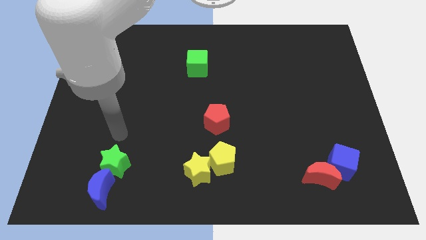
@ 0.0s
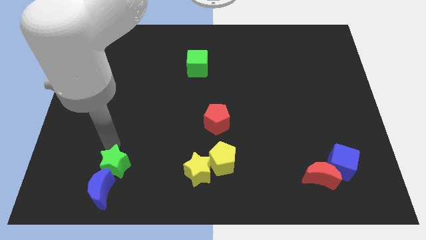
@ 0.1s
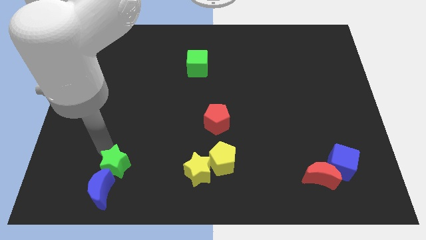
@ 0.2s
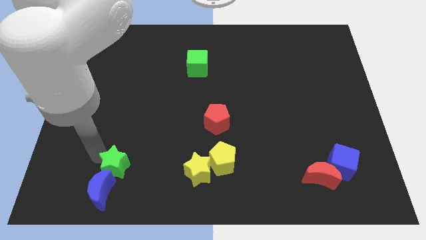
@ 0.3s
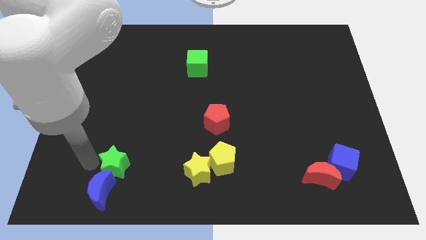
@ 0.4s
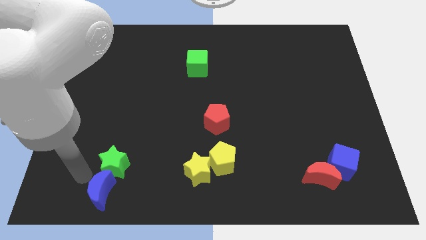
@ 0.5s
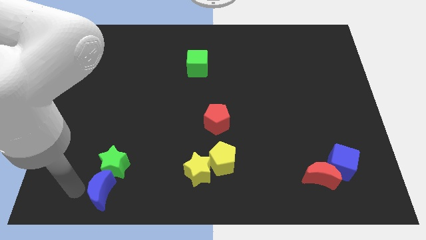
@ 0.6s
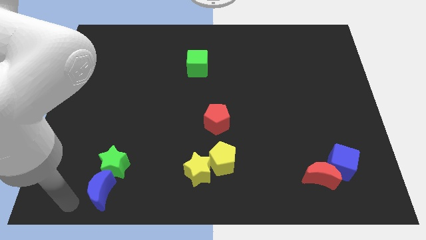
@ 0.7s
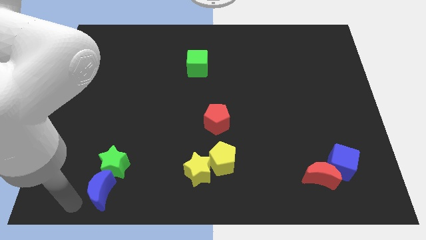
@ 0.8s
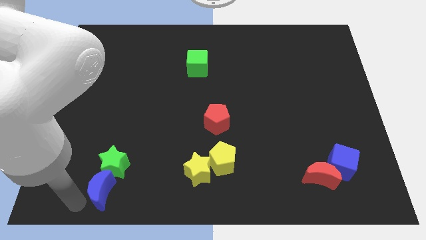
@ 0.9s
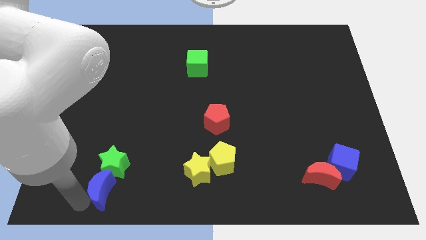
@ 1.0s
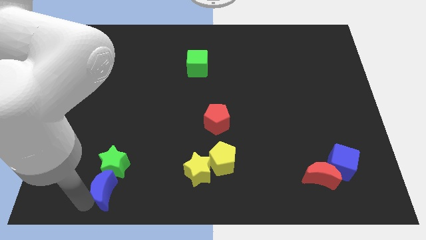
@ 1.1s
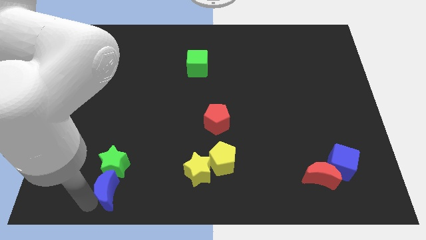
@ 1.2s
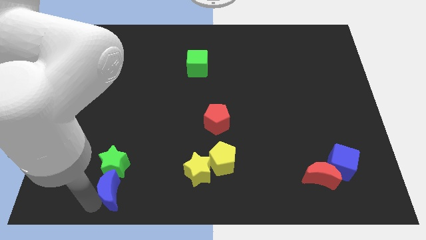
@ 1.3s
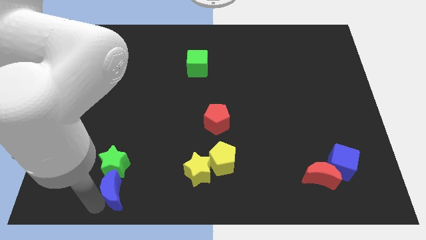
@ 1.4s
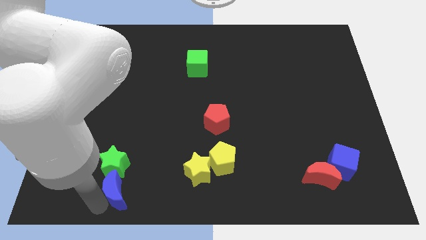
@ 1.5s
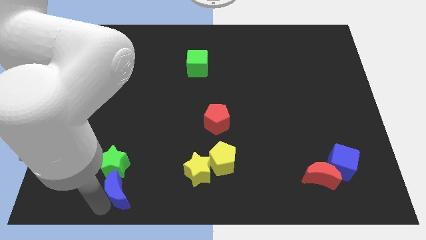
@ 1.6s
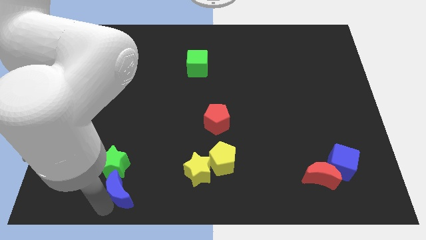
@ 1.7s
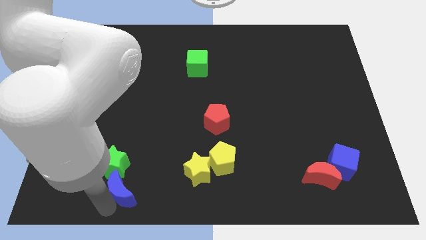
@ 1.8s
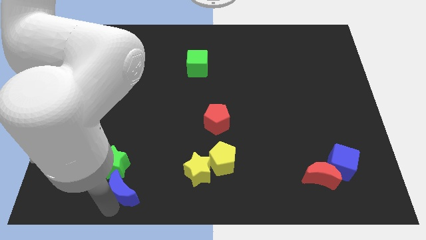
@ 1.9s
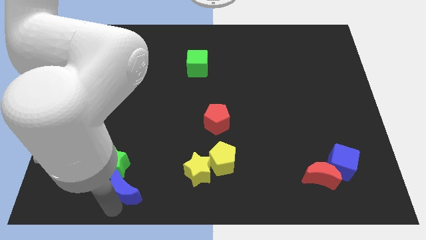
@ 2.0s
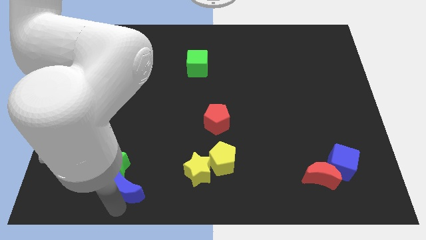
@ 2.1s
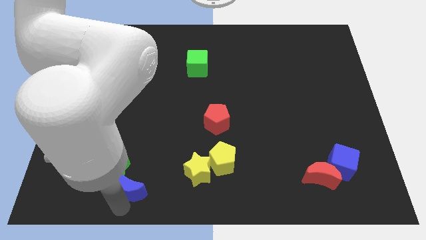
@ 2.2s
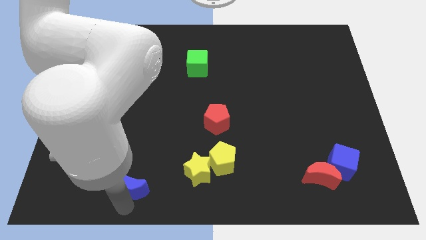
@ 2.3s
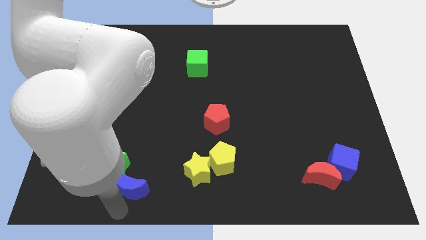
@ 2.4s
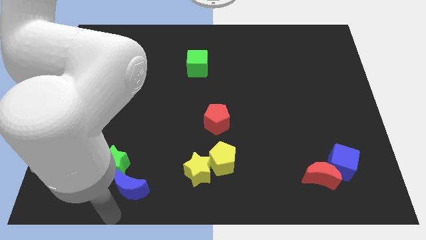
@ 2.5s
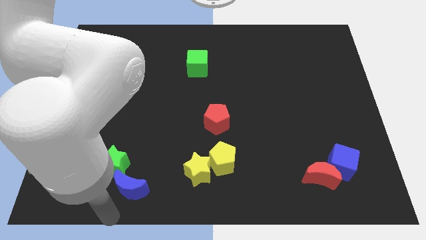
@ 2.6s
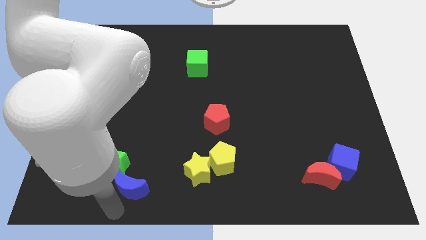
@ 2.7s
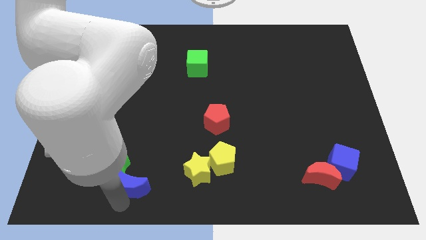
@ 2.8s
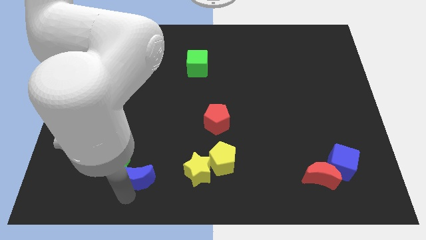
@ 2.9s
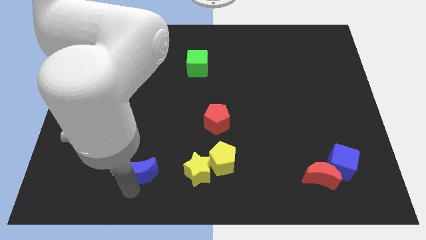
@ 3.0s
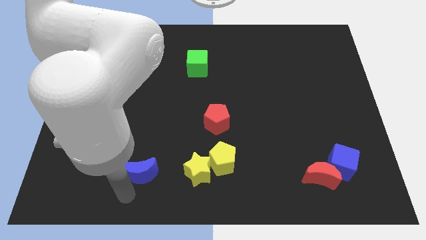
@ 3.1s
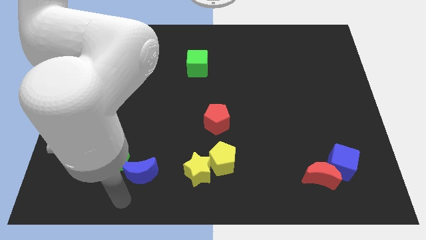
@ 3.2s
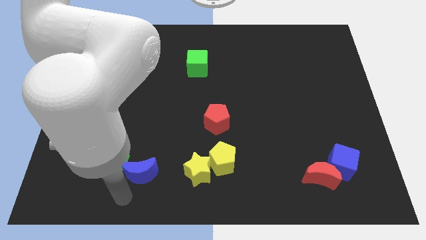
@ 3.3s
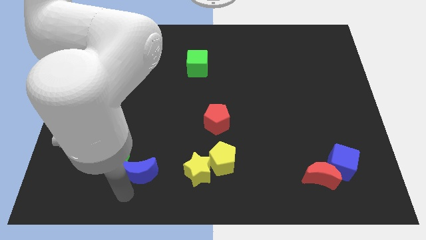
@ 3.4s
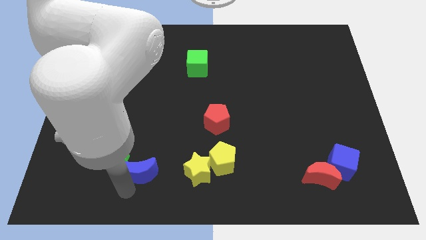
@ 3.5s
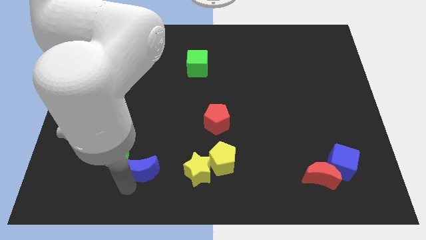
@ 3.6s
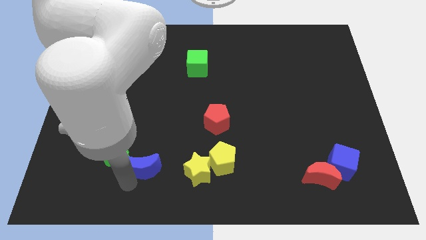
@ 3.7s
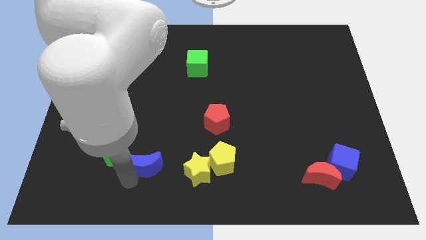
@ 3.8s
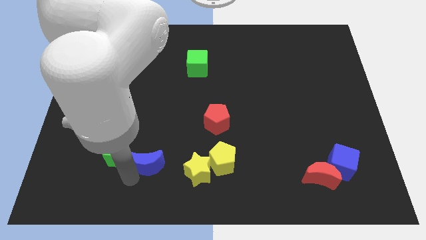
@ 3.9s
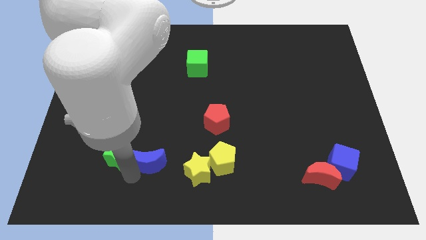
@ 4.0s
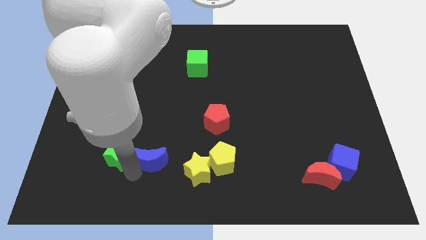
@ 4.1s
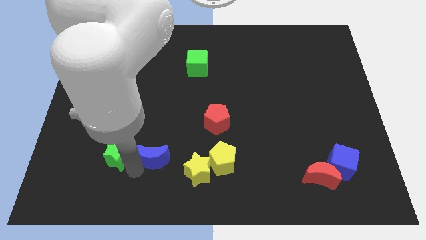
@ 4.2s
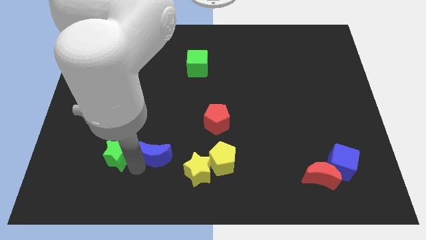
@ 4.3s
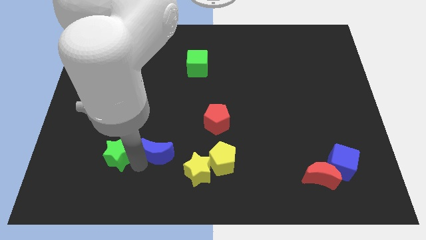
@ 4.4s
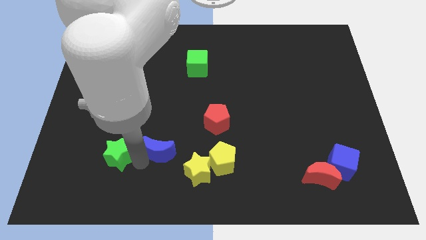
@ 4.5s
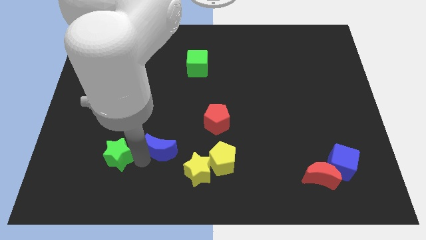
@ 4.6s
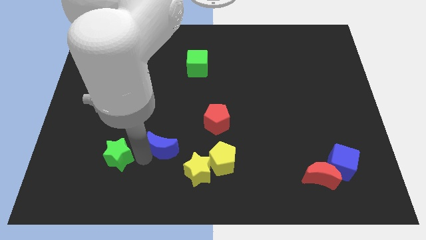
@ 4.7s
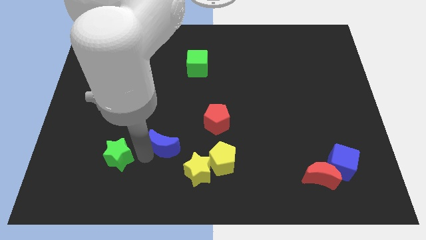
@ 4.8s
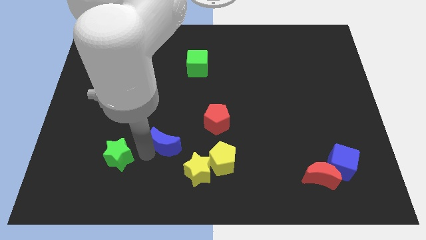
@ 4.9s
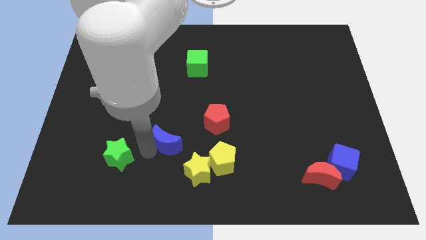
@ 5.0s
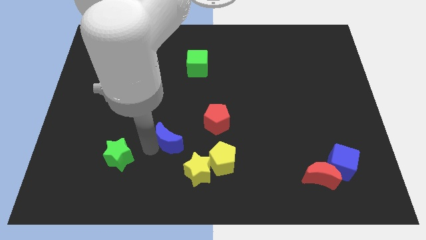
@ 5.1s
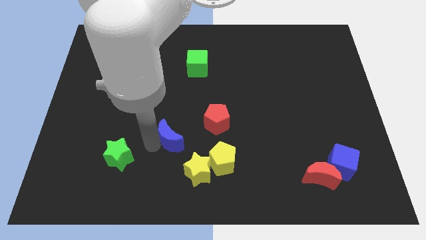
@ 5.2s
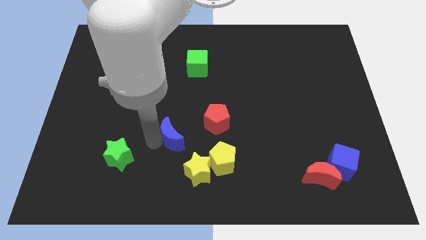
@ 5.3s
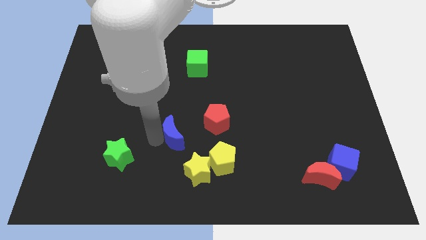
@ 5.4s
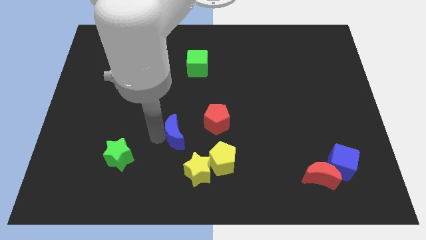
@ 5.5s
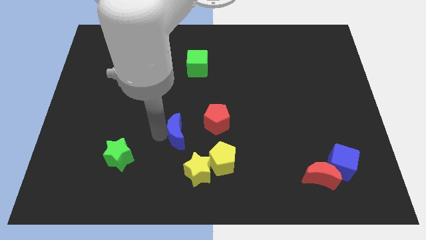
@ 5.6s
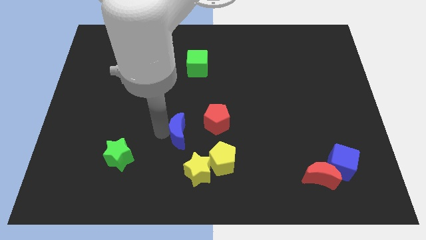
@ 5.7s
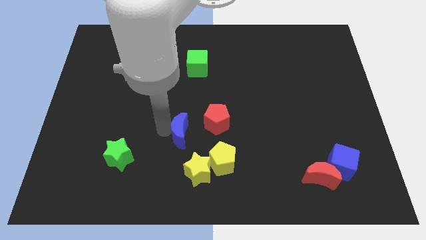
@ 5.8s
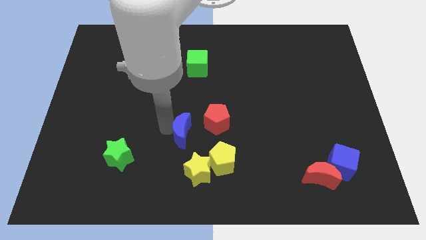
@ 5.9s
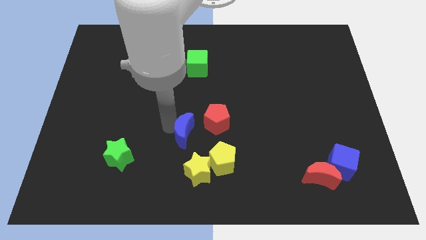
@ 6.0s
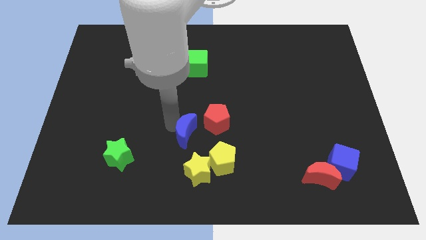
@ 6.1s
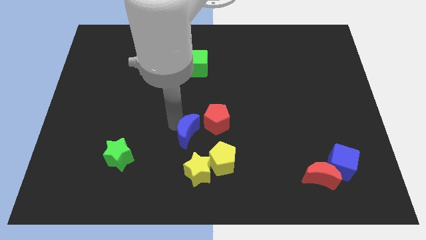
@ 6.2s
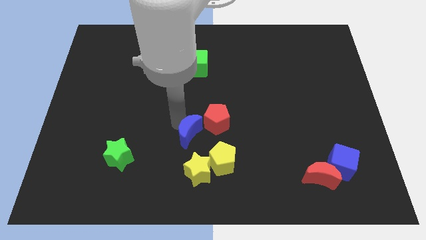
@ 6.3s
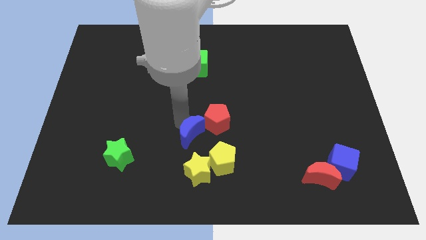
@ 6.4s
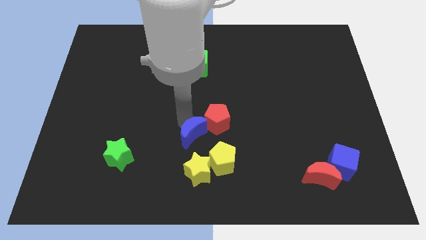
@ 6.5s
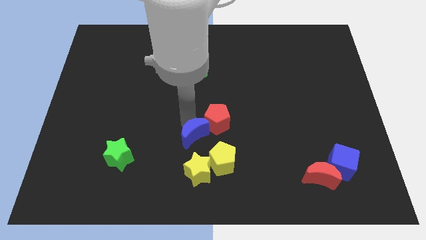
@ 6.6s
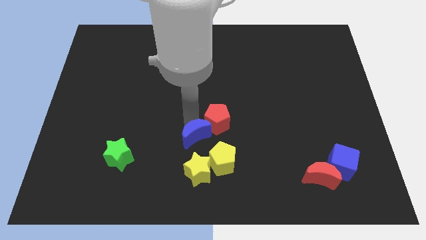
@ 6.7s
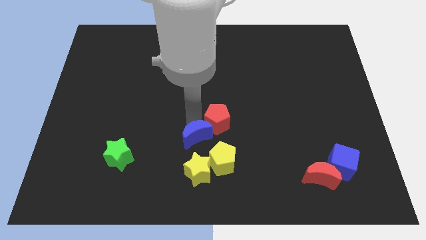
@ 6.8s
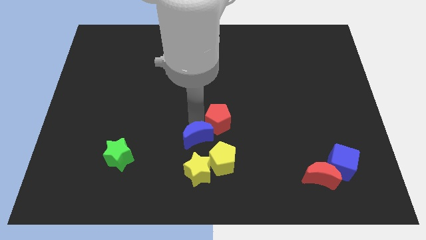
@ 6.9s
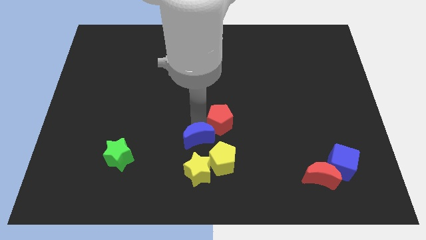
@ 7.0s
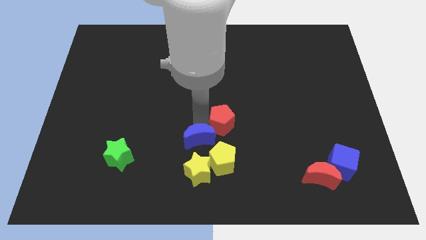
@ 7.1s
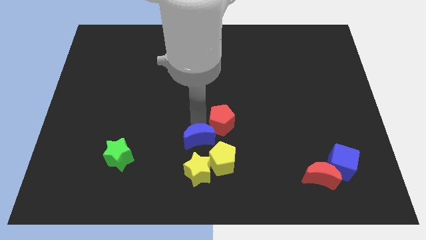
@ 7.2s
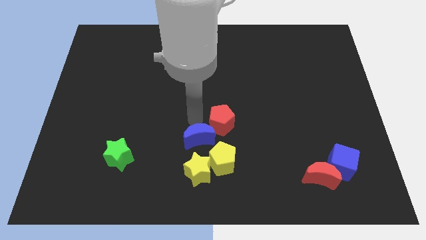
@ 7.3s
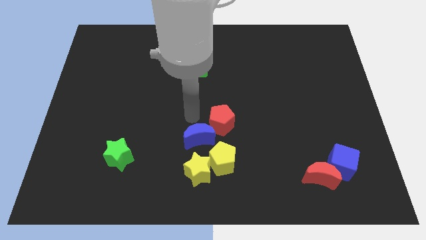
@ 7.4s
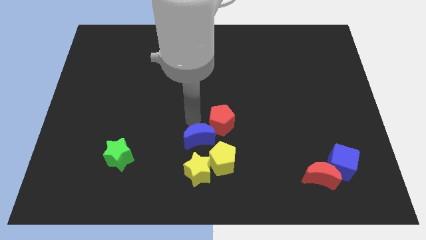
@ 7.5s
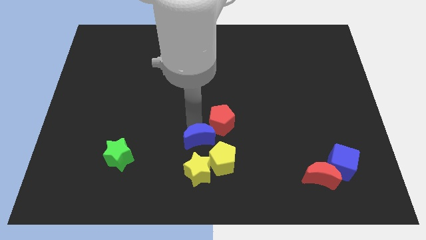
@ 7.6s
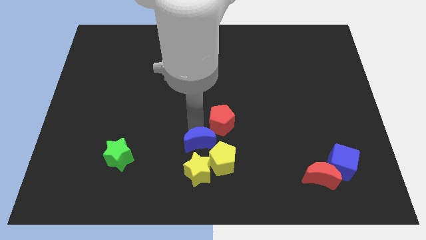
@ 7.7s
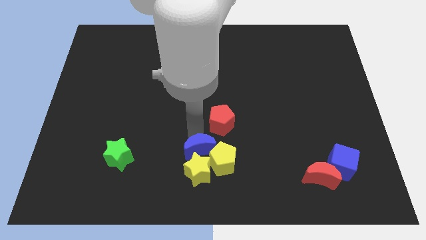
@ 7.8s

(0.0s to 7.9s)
slide the blue moon to the yellow pentagon
